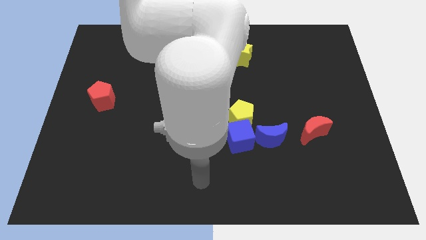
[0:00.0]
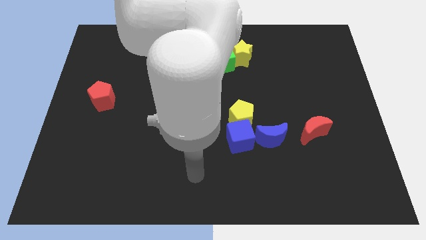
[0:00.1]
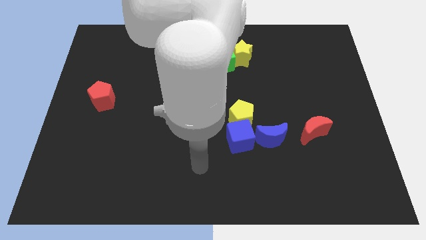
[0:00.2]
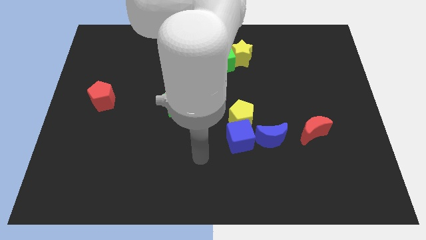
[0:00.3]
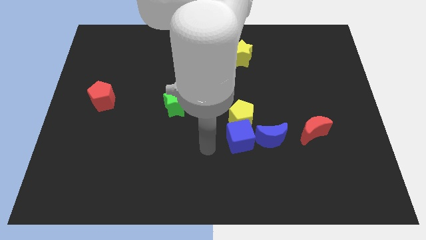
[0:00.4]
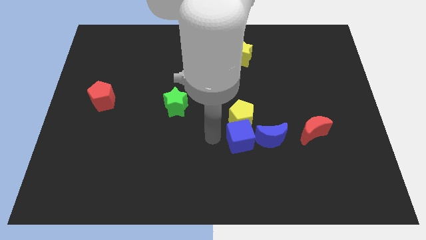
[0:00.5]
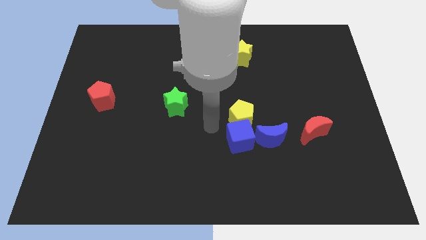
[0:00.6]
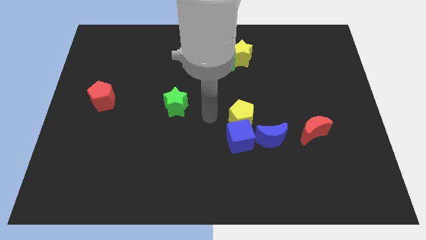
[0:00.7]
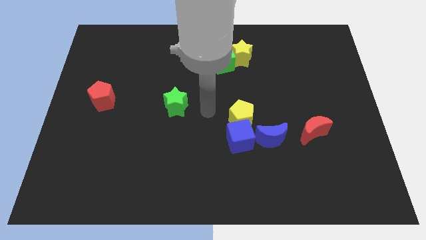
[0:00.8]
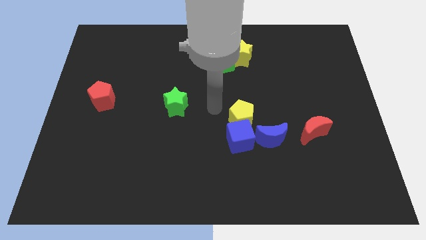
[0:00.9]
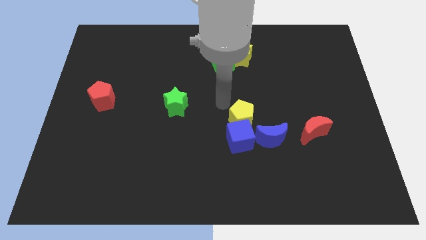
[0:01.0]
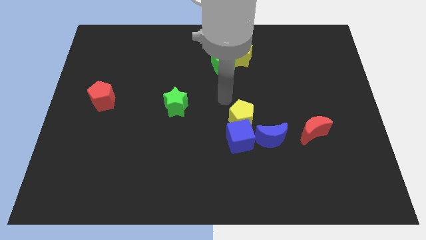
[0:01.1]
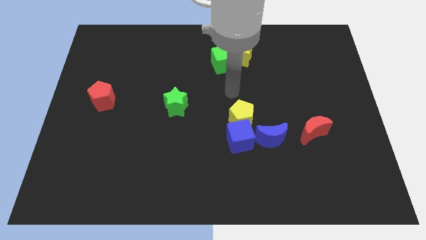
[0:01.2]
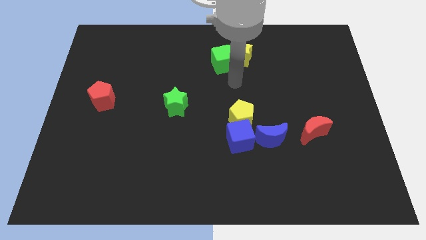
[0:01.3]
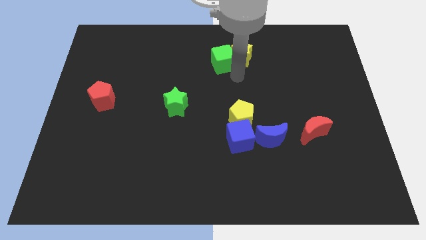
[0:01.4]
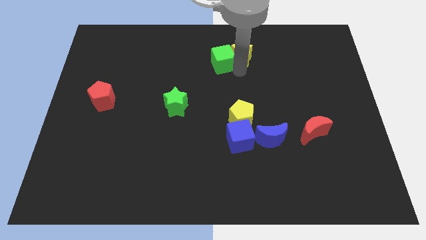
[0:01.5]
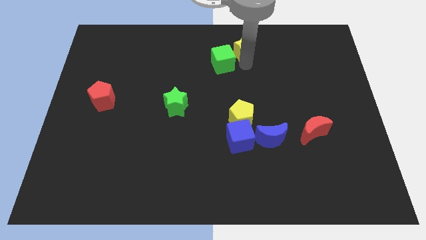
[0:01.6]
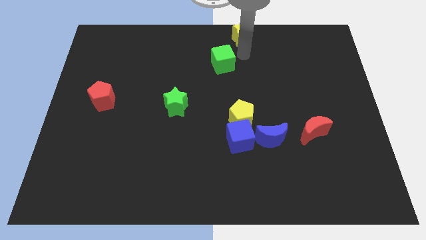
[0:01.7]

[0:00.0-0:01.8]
move the green cube away from the yellow star

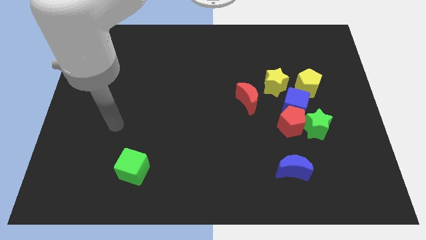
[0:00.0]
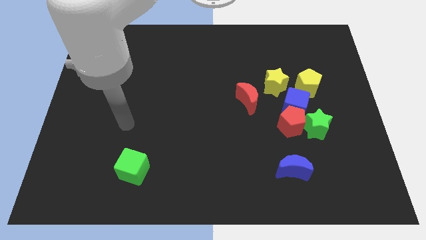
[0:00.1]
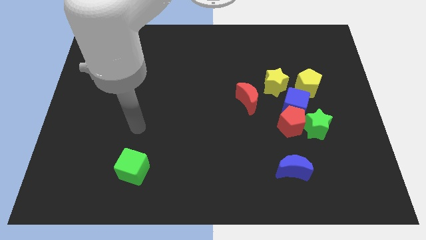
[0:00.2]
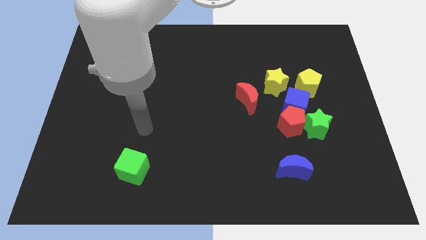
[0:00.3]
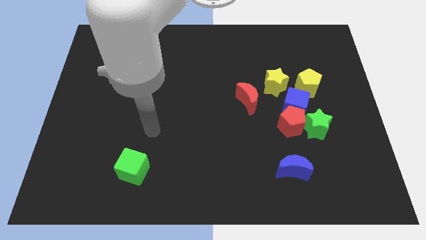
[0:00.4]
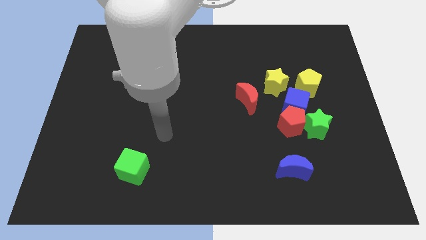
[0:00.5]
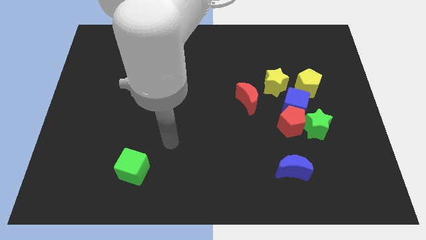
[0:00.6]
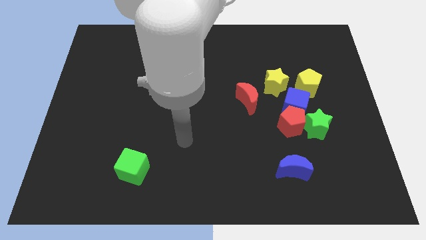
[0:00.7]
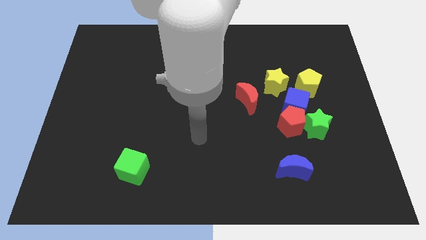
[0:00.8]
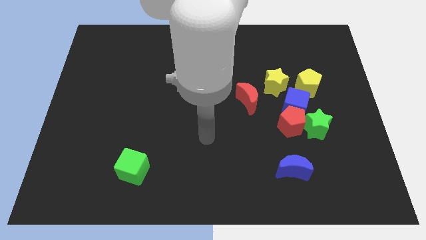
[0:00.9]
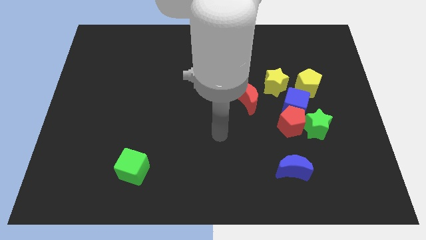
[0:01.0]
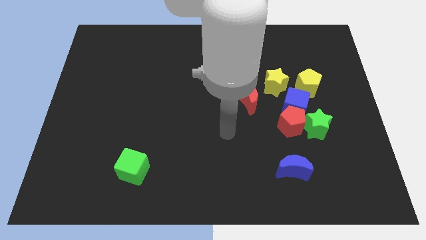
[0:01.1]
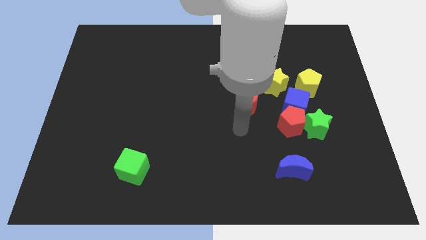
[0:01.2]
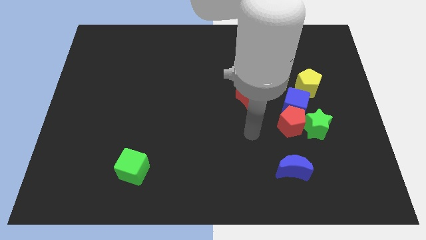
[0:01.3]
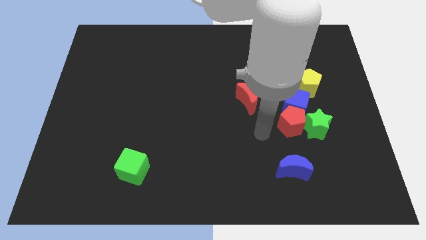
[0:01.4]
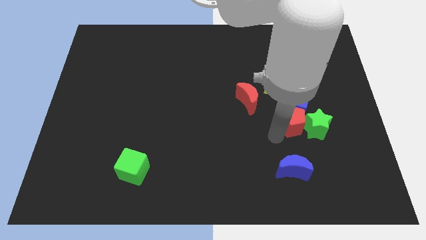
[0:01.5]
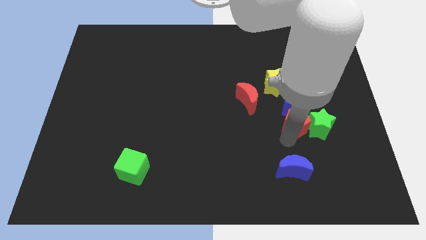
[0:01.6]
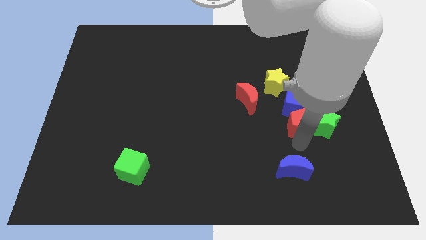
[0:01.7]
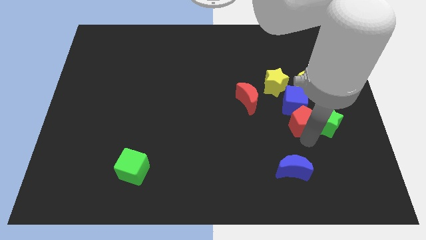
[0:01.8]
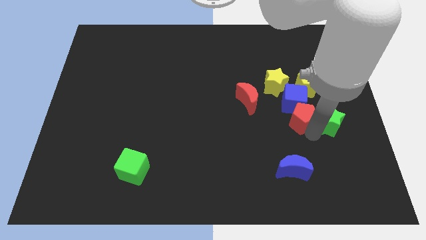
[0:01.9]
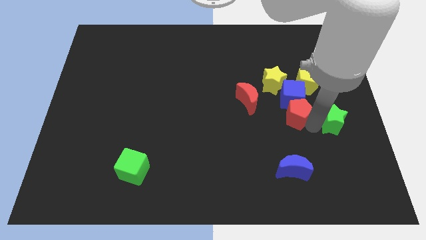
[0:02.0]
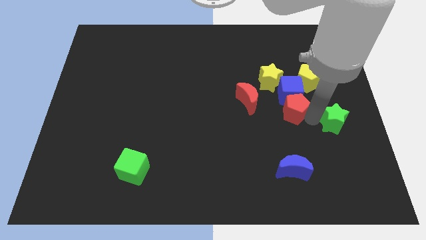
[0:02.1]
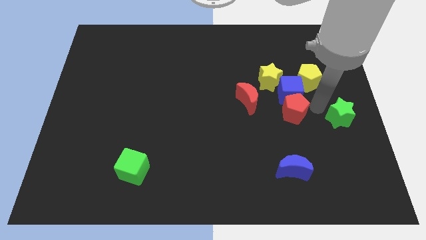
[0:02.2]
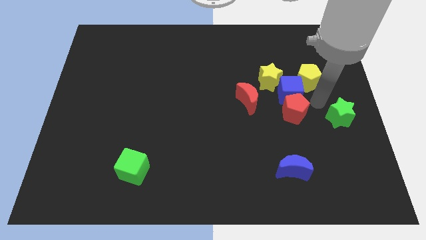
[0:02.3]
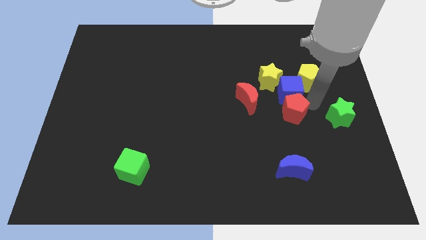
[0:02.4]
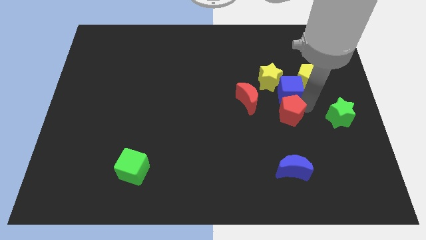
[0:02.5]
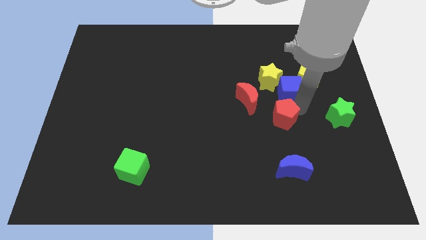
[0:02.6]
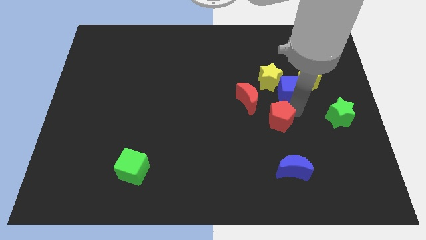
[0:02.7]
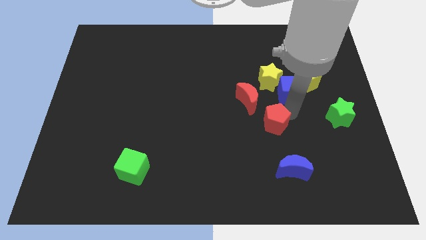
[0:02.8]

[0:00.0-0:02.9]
move the red pentagon away from the blue cube and green star

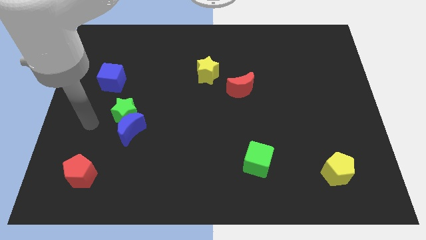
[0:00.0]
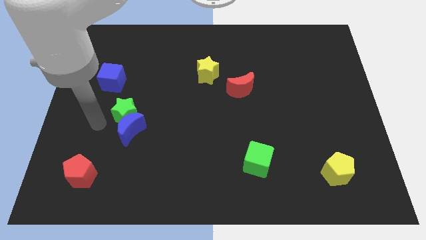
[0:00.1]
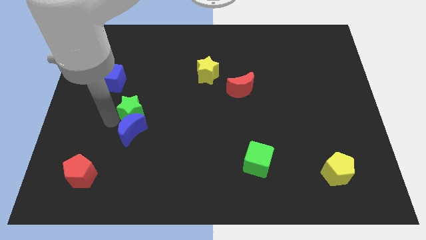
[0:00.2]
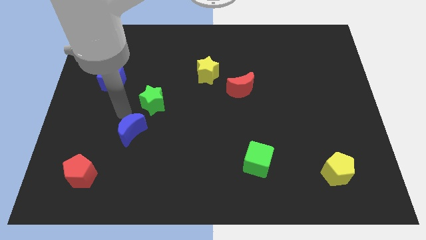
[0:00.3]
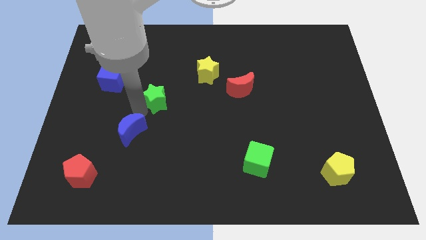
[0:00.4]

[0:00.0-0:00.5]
separate the blue moon from the green star

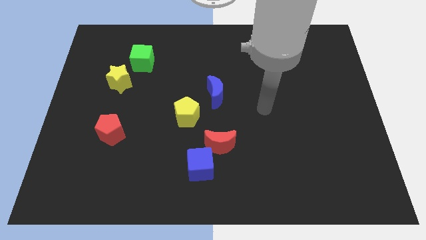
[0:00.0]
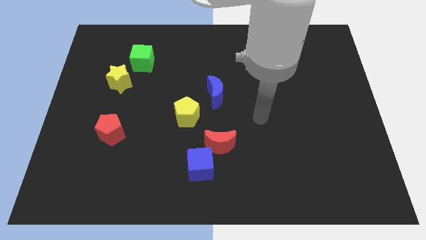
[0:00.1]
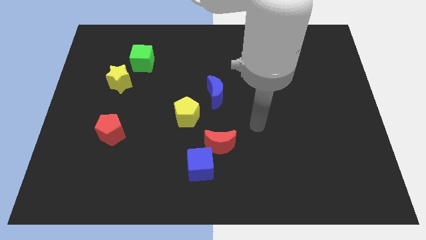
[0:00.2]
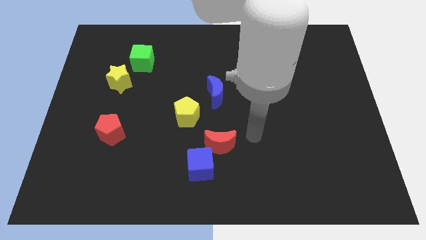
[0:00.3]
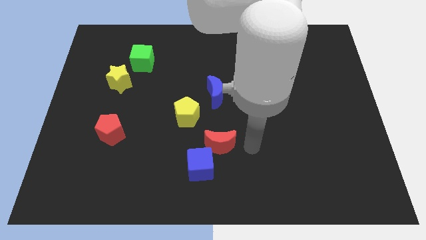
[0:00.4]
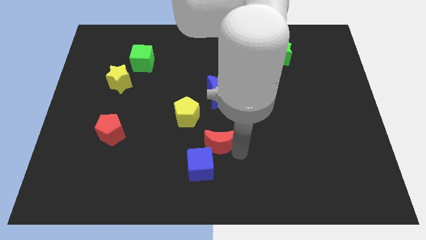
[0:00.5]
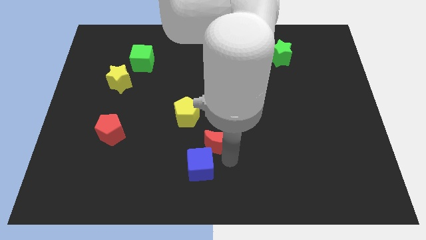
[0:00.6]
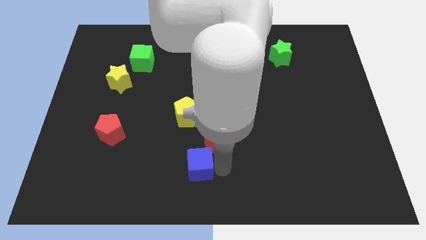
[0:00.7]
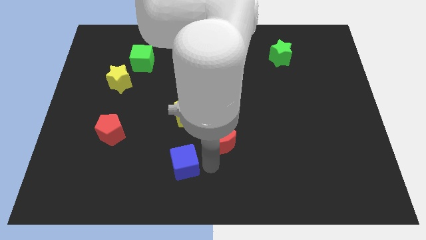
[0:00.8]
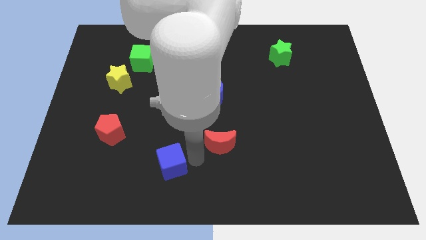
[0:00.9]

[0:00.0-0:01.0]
pull the red moon apart from the blue cube

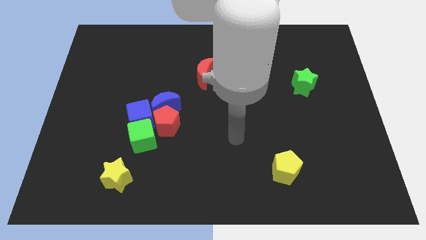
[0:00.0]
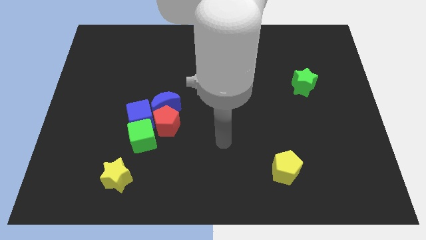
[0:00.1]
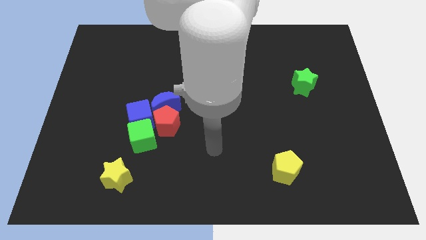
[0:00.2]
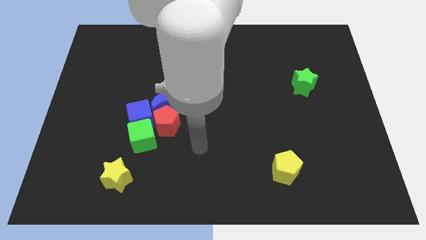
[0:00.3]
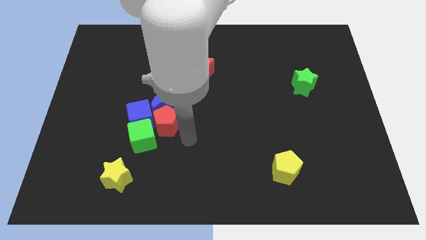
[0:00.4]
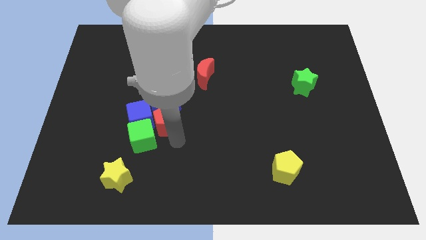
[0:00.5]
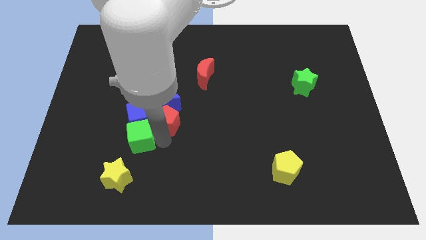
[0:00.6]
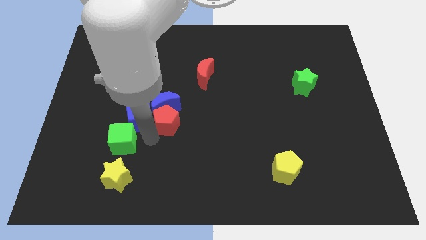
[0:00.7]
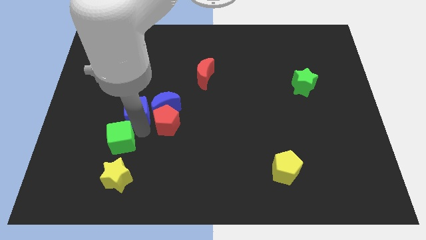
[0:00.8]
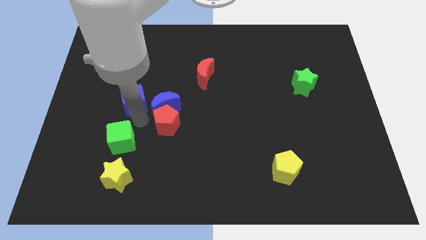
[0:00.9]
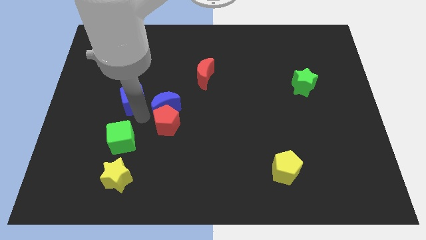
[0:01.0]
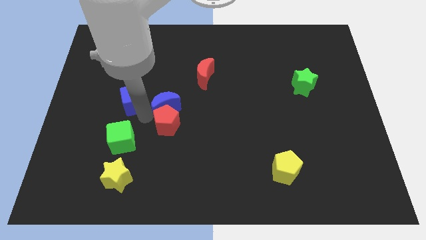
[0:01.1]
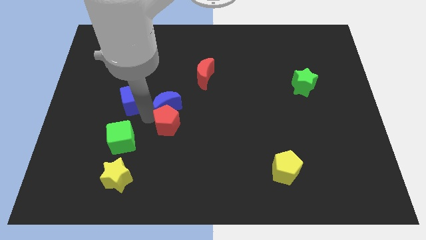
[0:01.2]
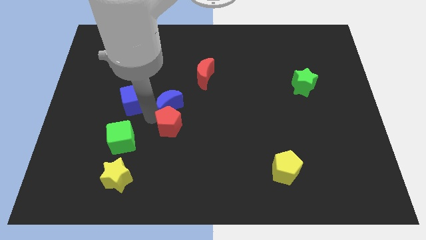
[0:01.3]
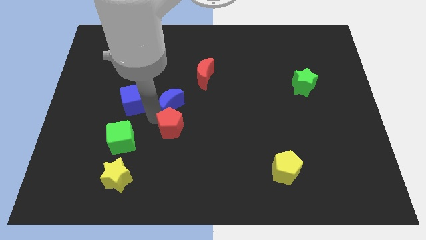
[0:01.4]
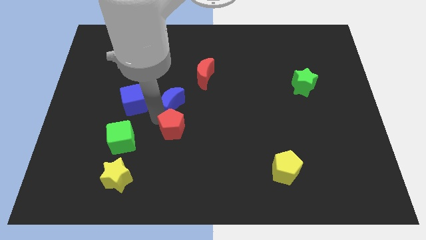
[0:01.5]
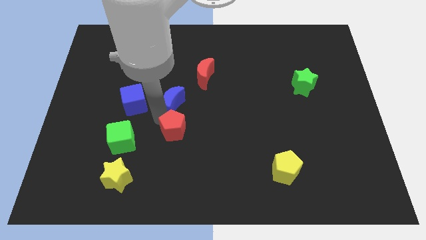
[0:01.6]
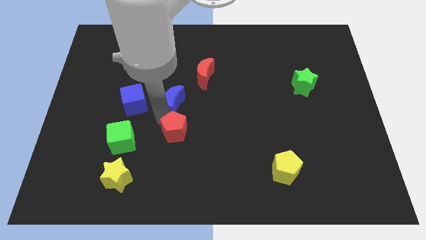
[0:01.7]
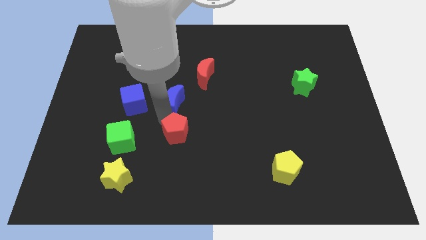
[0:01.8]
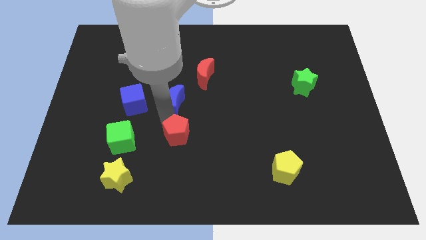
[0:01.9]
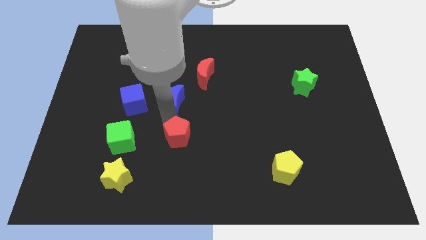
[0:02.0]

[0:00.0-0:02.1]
move the red pentagon away from the clump

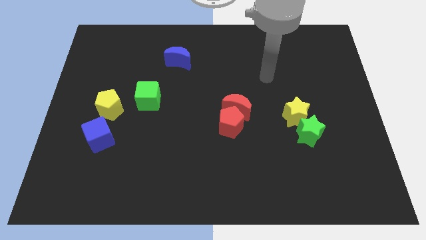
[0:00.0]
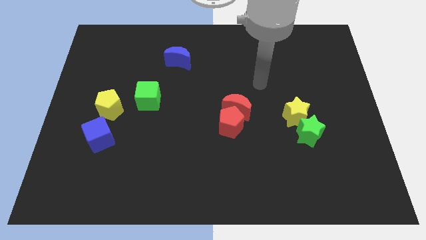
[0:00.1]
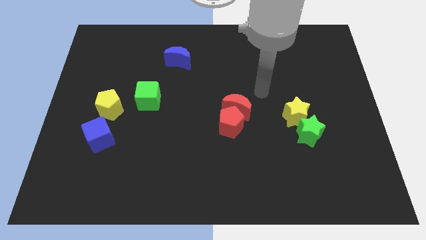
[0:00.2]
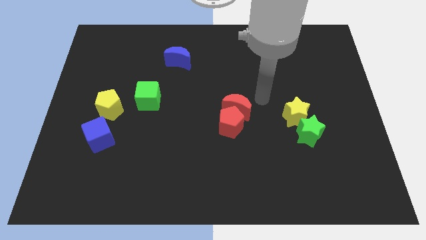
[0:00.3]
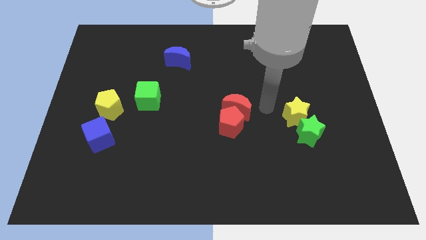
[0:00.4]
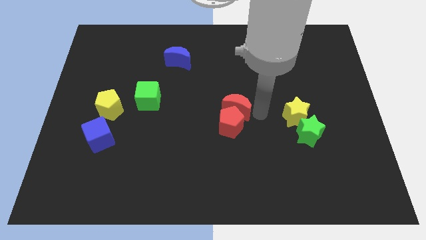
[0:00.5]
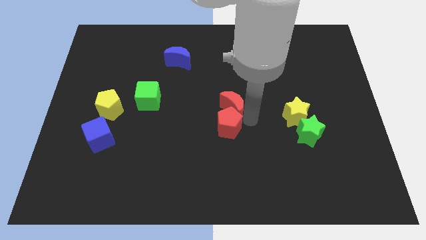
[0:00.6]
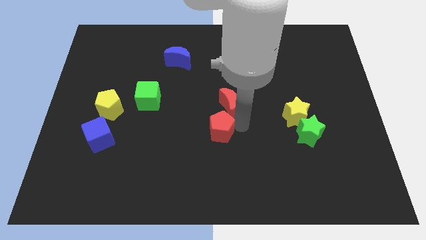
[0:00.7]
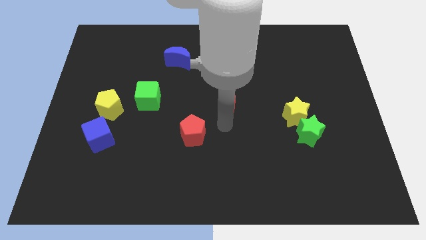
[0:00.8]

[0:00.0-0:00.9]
pull the red moon apart from the red pentagon
